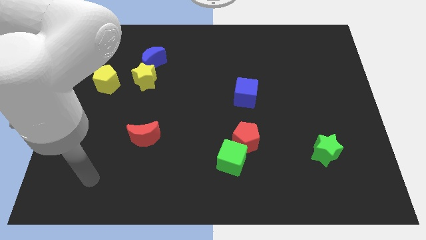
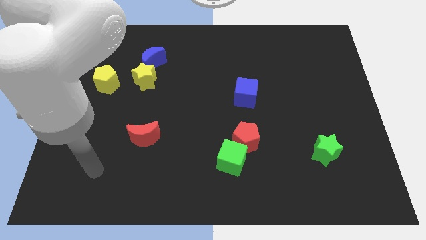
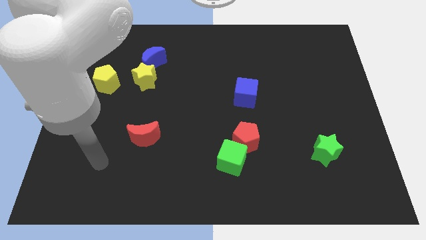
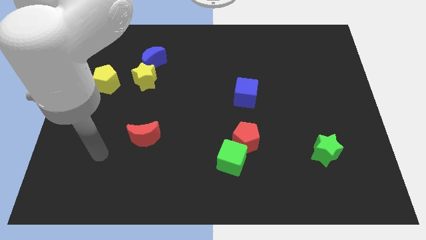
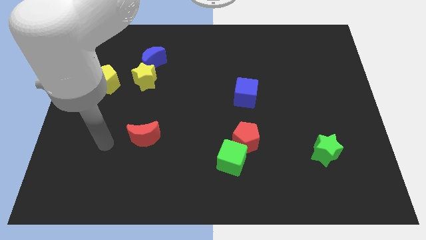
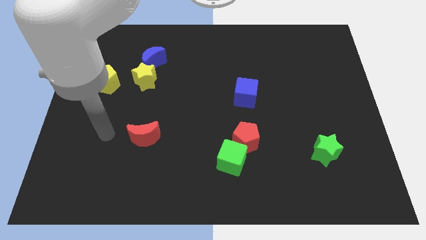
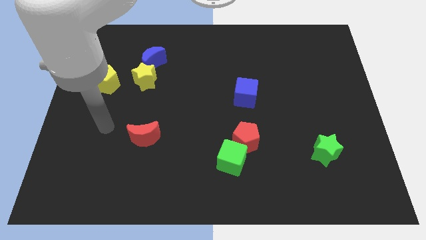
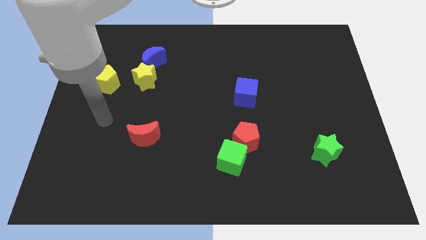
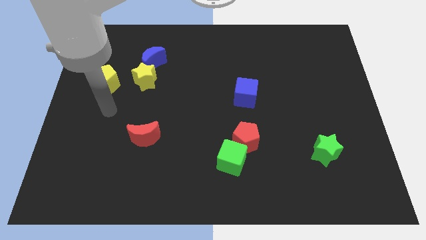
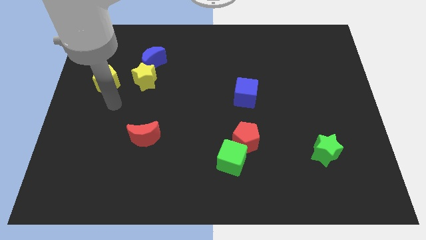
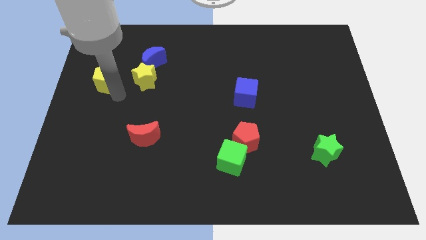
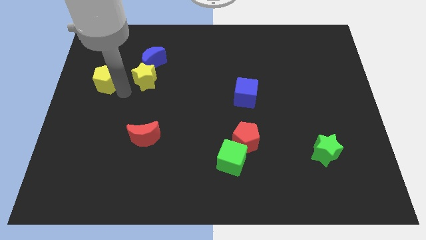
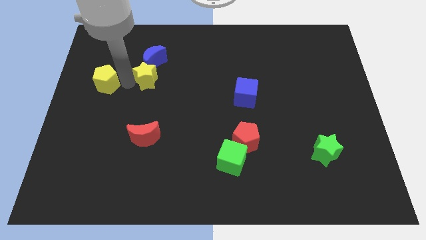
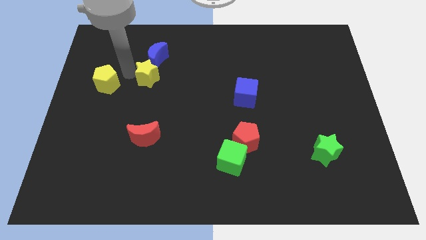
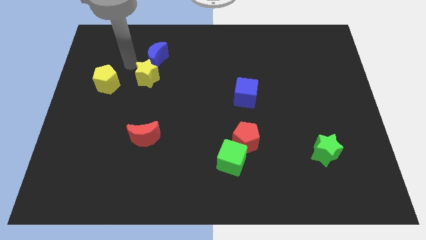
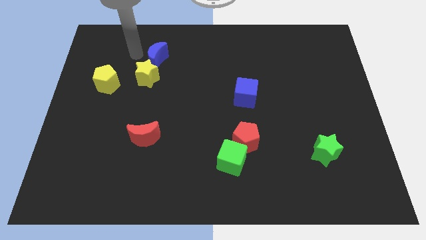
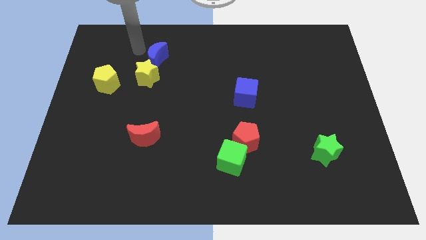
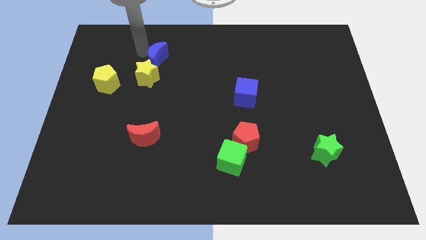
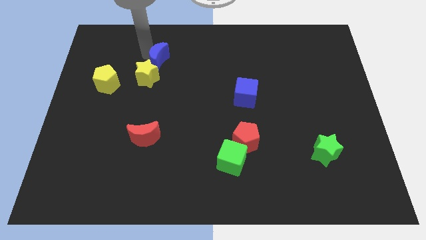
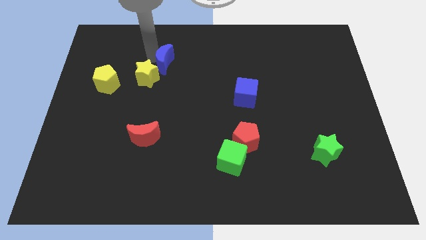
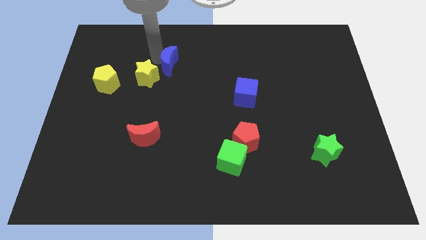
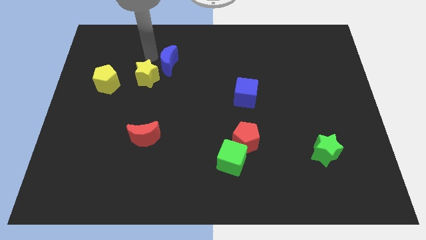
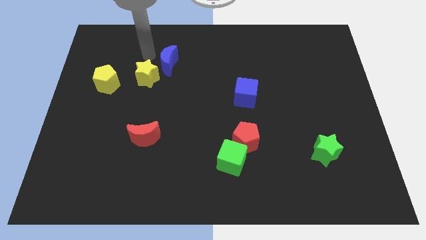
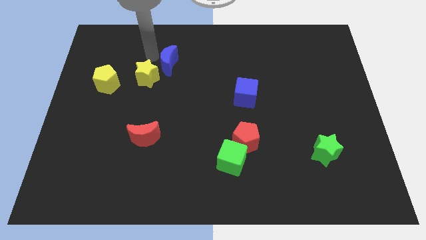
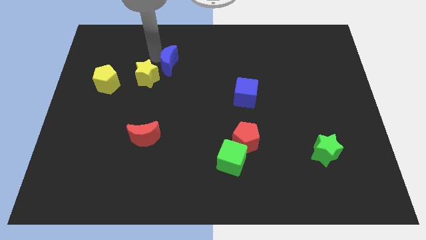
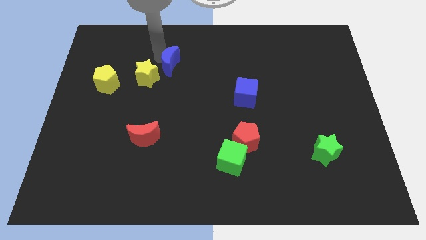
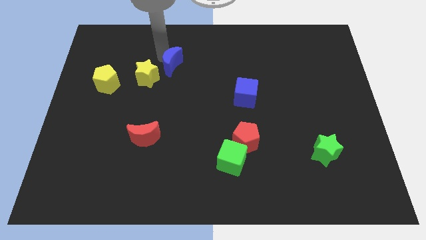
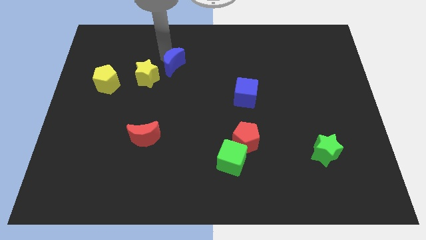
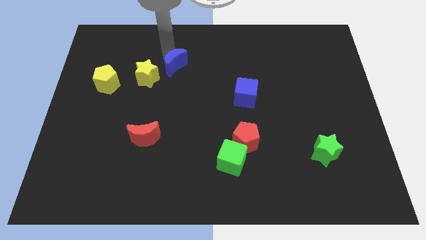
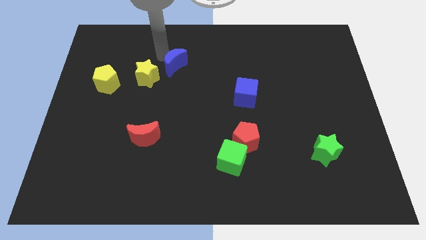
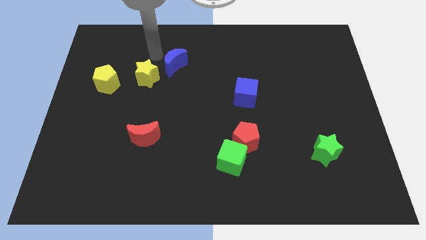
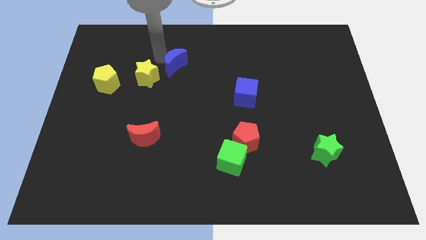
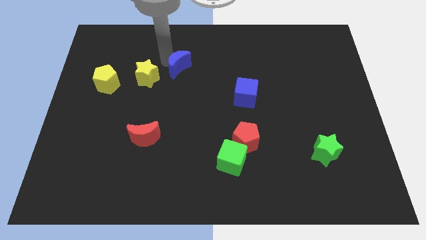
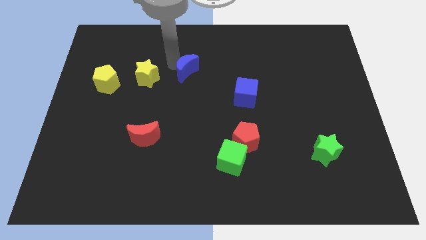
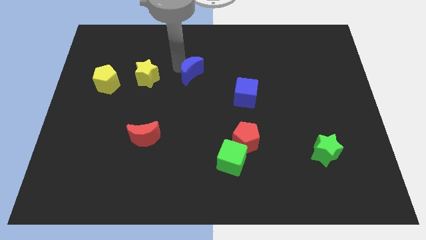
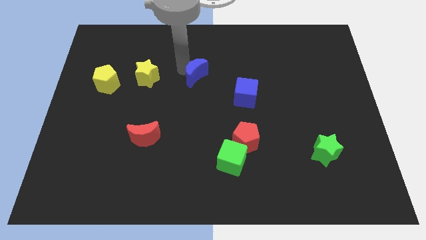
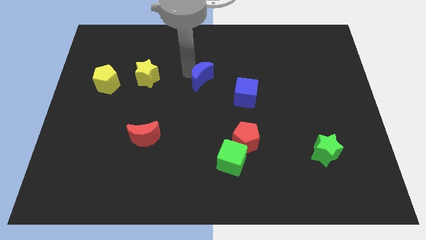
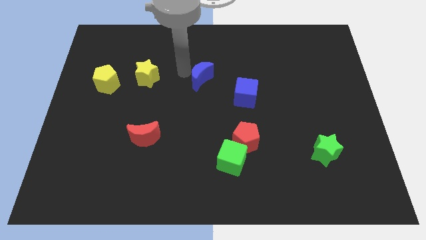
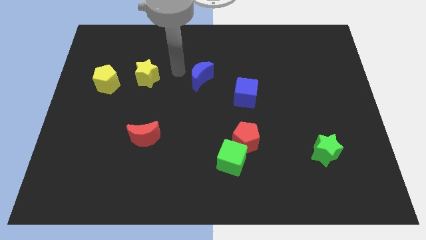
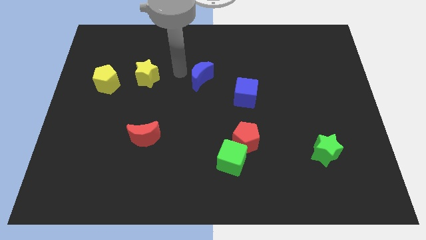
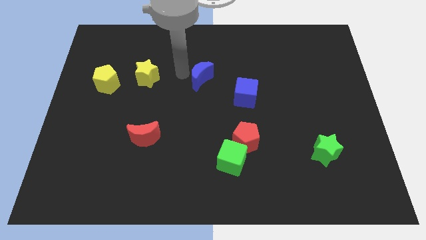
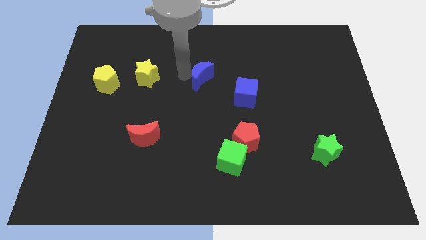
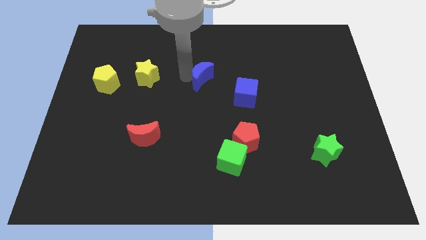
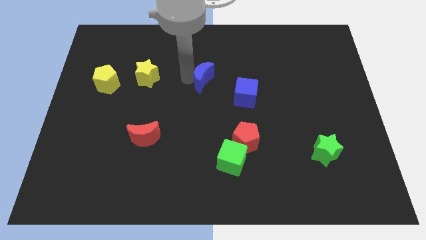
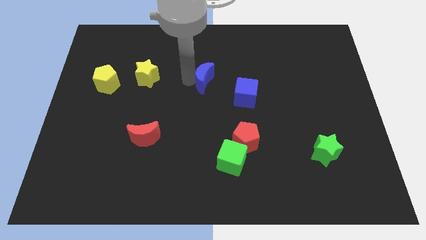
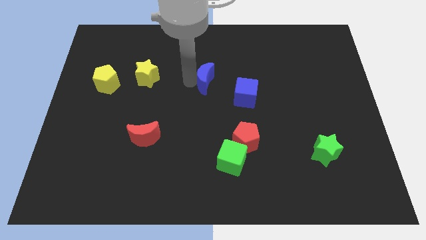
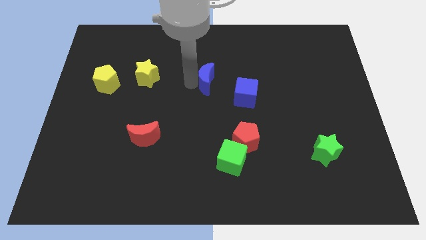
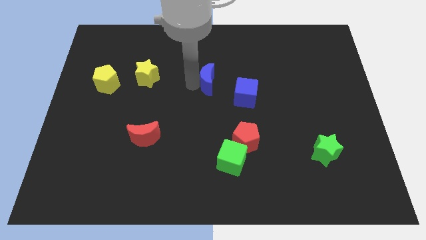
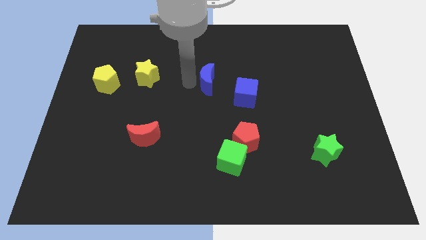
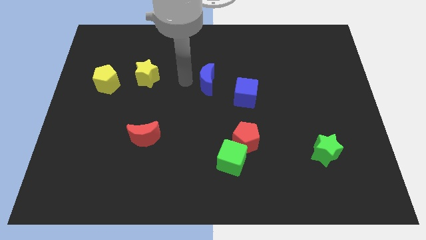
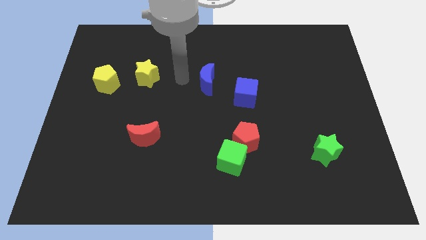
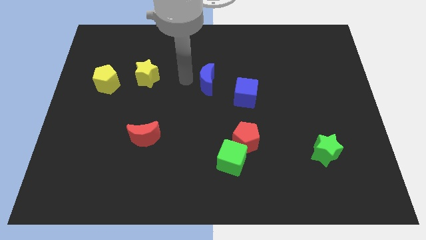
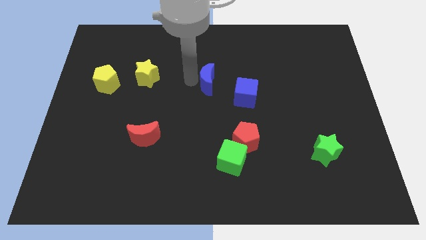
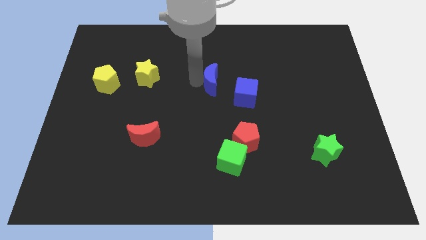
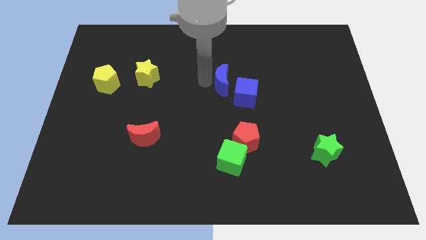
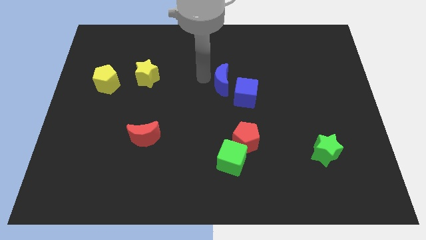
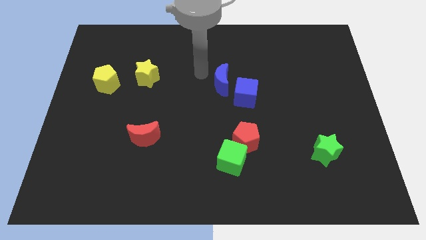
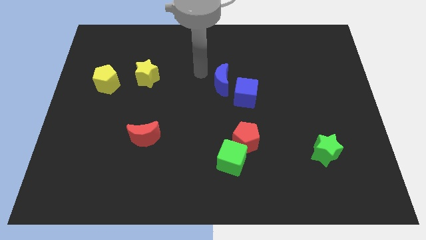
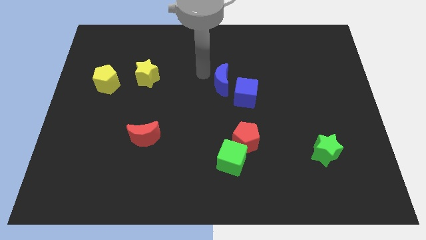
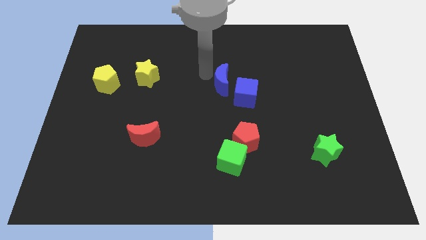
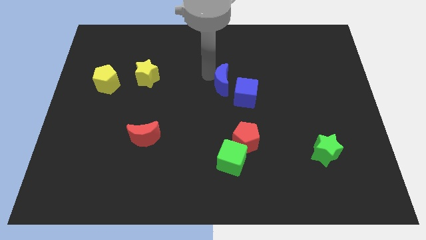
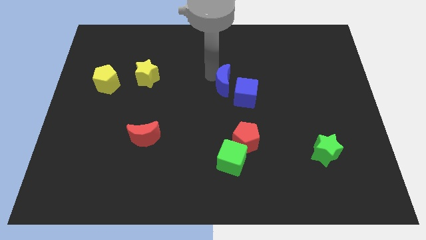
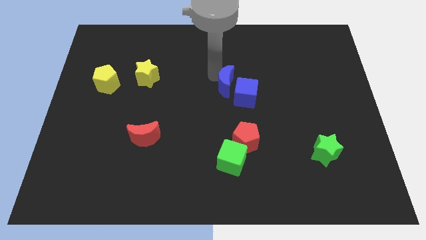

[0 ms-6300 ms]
push the blue moon next to the blue cube
